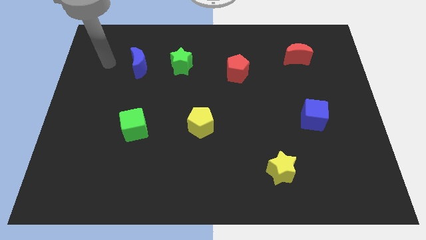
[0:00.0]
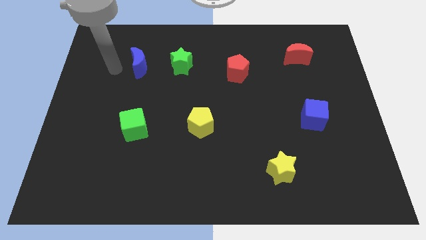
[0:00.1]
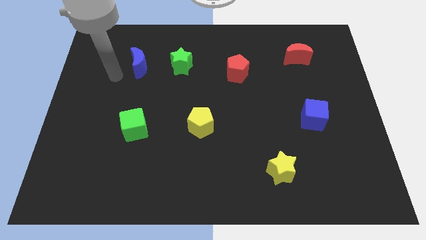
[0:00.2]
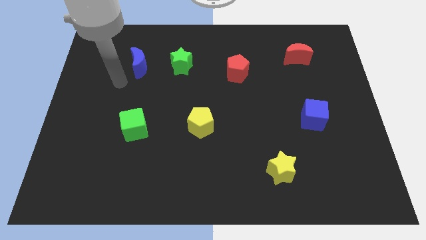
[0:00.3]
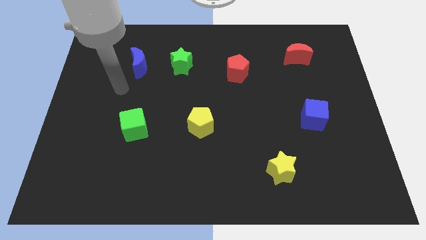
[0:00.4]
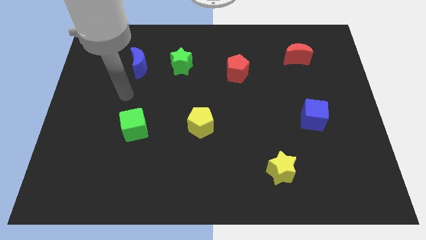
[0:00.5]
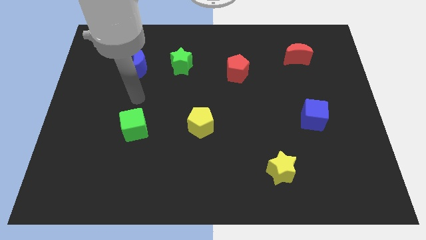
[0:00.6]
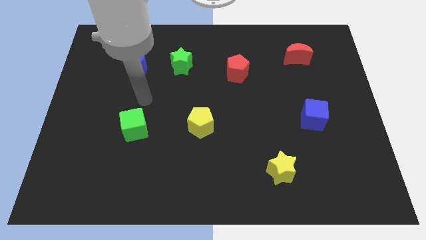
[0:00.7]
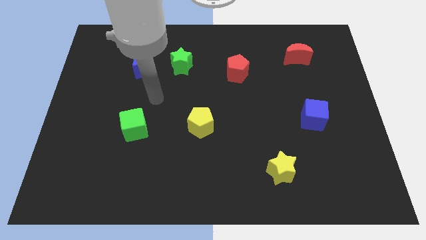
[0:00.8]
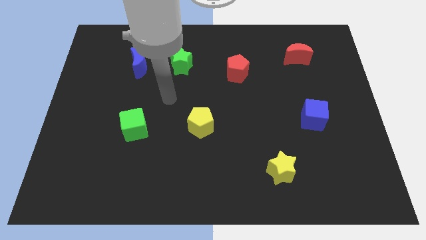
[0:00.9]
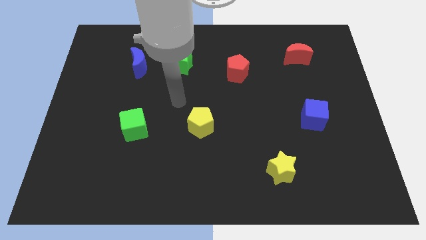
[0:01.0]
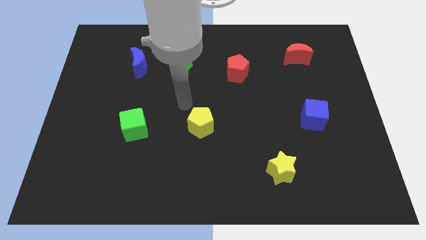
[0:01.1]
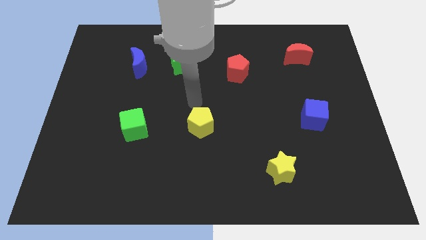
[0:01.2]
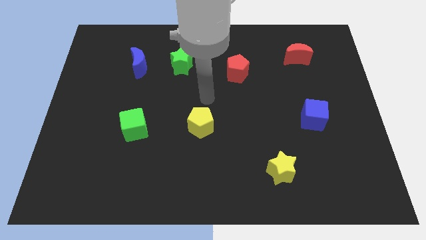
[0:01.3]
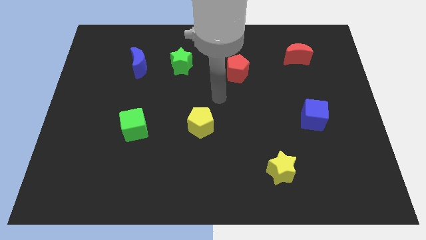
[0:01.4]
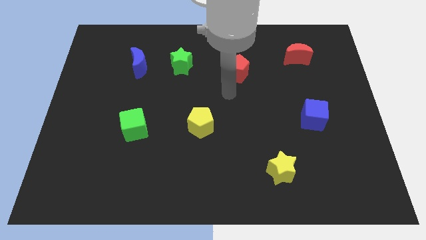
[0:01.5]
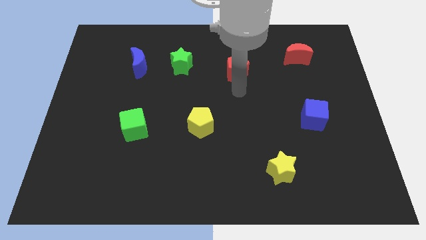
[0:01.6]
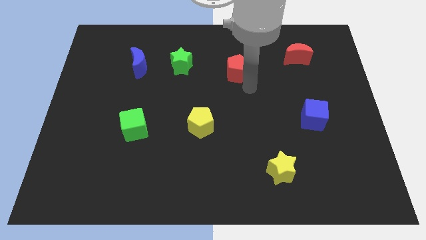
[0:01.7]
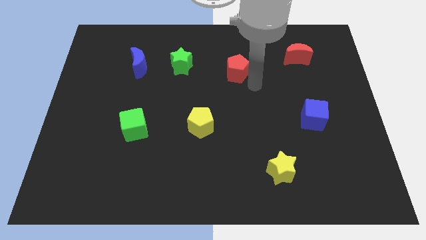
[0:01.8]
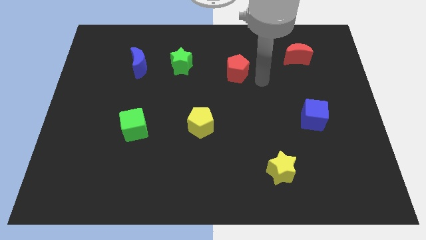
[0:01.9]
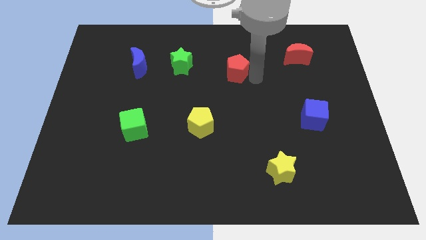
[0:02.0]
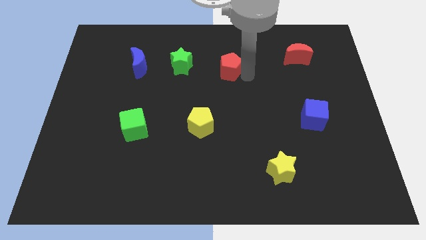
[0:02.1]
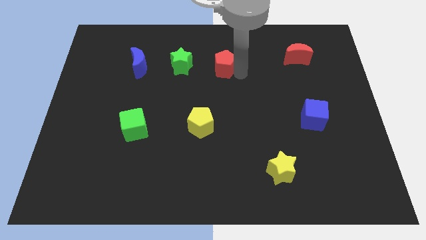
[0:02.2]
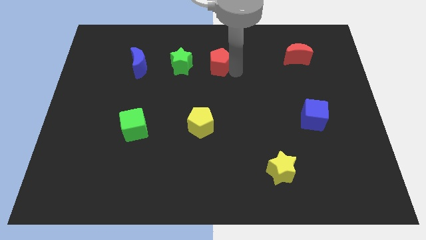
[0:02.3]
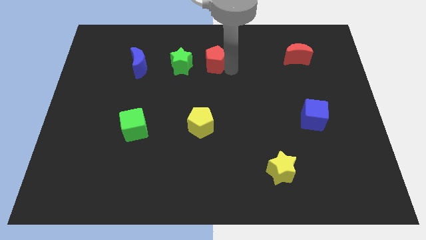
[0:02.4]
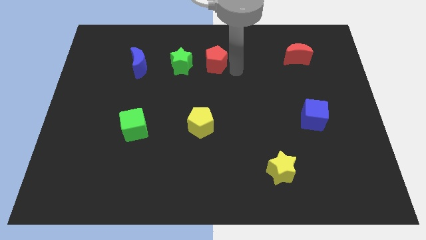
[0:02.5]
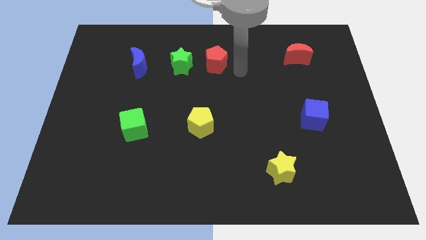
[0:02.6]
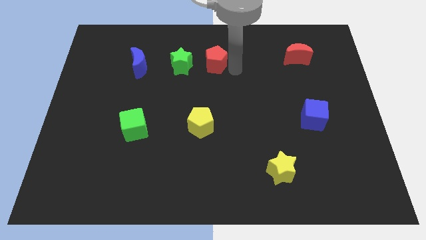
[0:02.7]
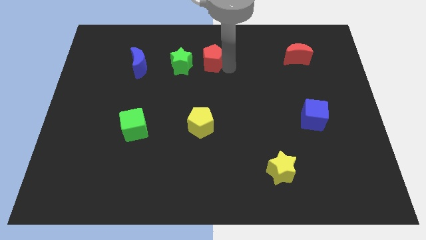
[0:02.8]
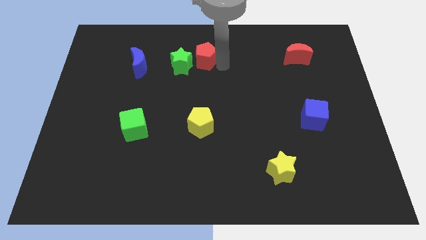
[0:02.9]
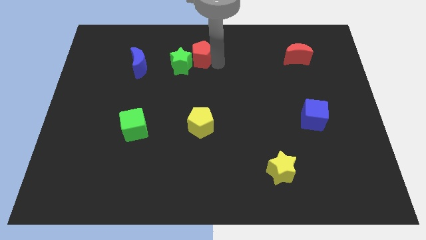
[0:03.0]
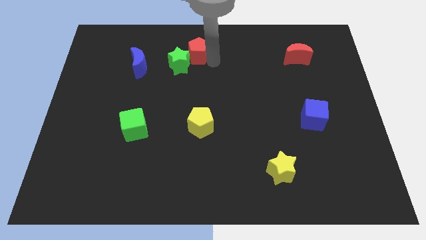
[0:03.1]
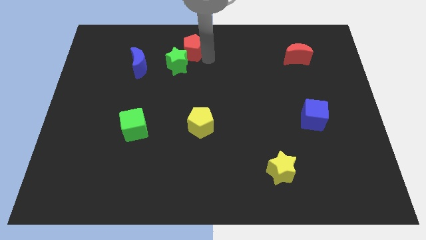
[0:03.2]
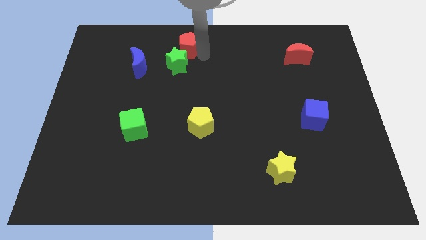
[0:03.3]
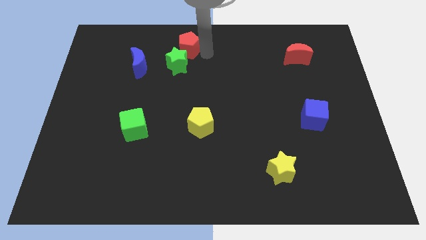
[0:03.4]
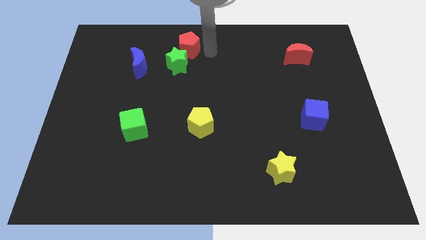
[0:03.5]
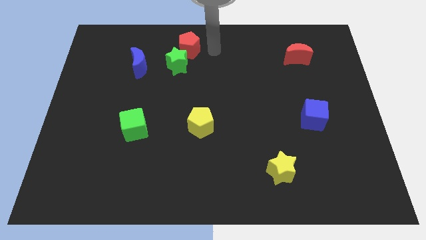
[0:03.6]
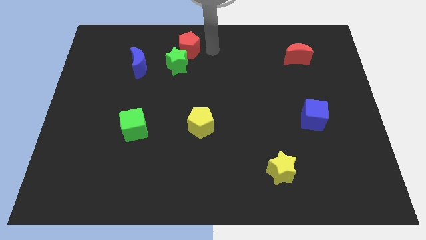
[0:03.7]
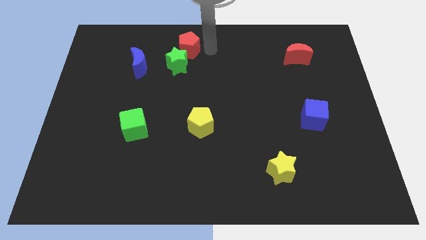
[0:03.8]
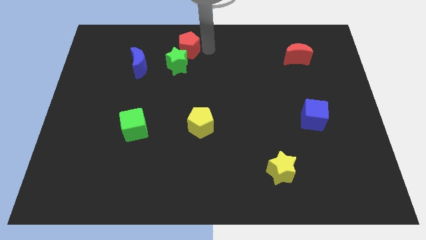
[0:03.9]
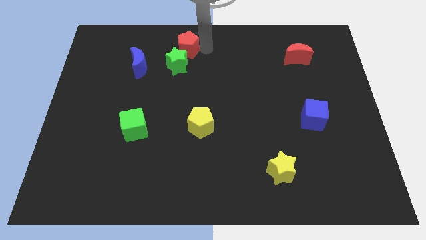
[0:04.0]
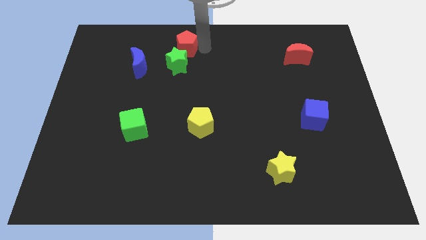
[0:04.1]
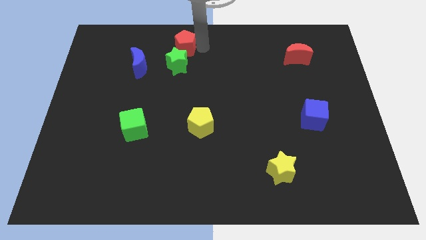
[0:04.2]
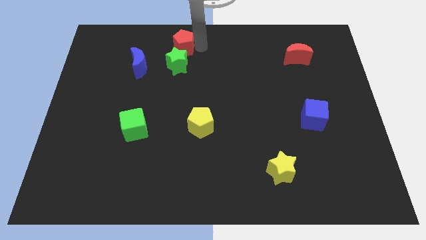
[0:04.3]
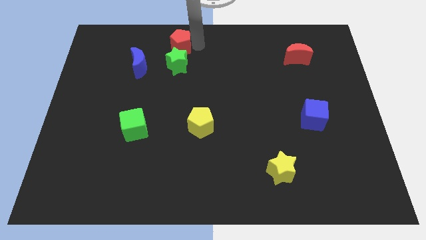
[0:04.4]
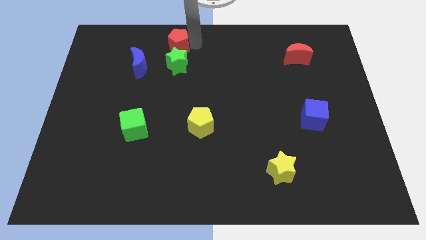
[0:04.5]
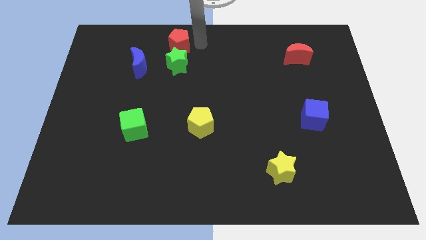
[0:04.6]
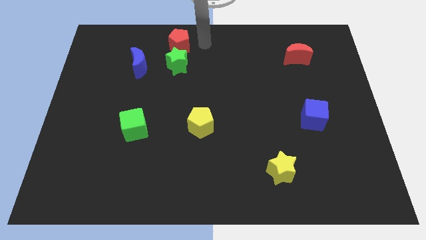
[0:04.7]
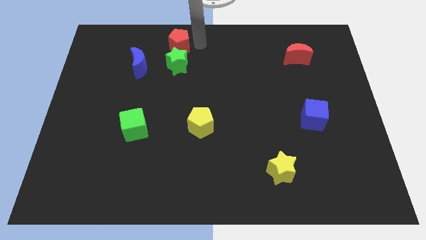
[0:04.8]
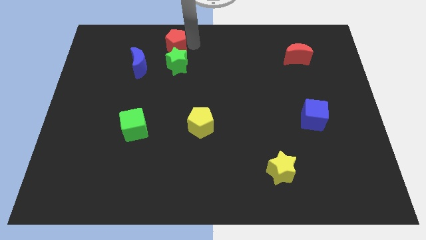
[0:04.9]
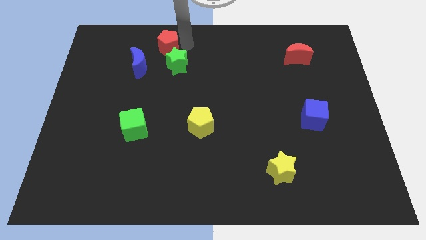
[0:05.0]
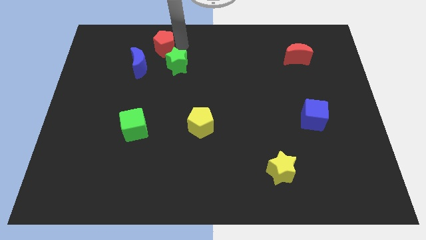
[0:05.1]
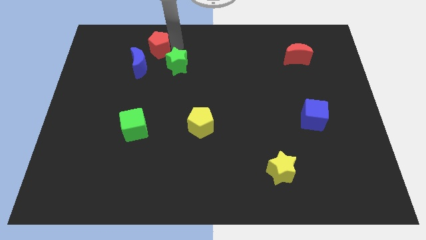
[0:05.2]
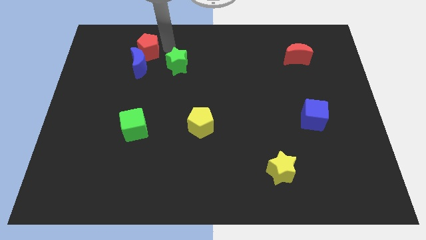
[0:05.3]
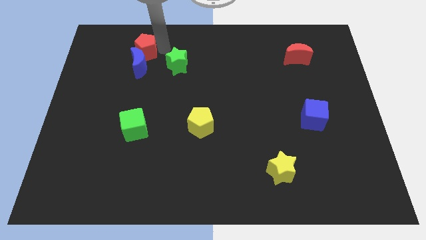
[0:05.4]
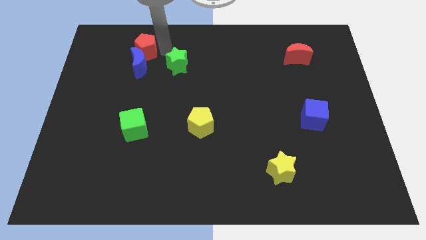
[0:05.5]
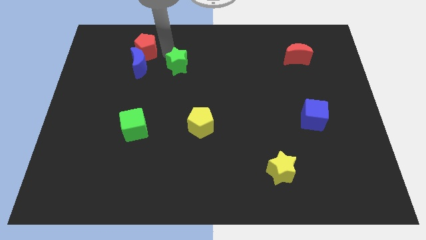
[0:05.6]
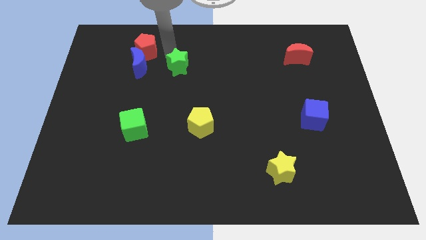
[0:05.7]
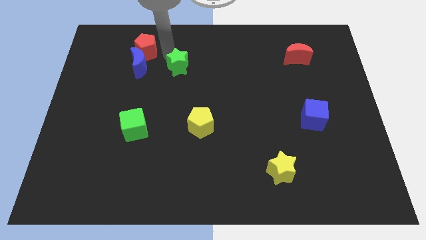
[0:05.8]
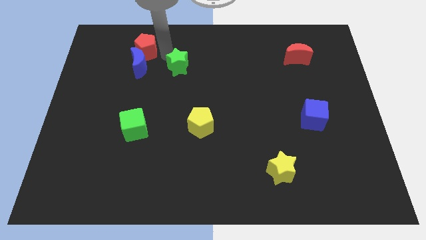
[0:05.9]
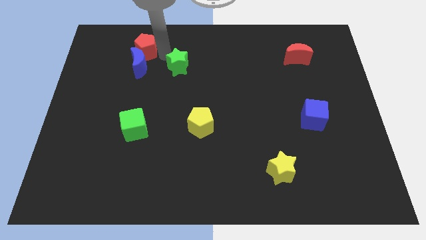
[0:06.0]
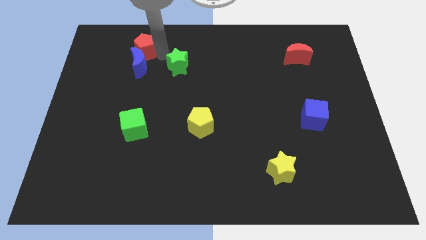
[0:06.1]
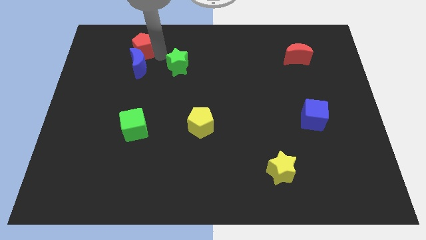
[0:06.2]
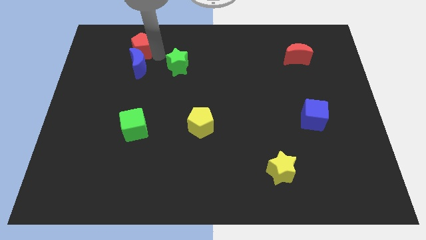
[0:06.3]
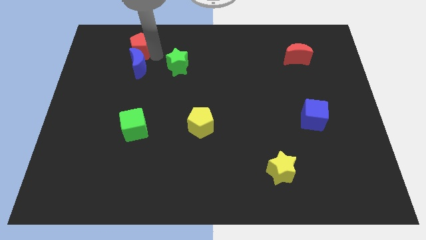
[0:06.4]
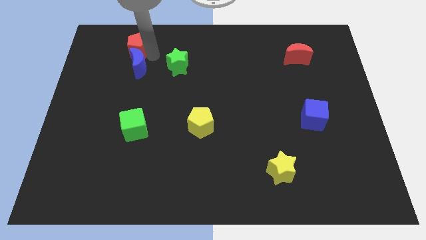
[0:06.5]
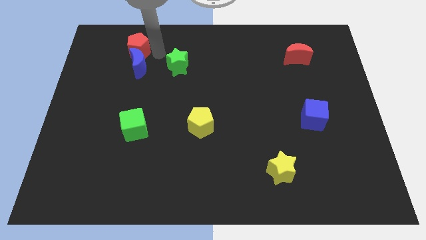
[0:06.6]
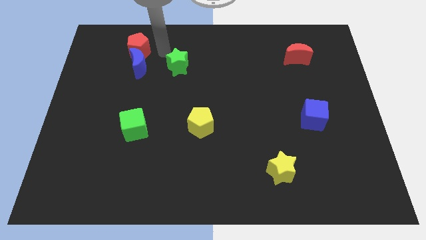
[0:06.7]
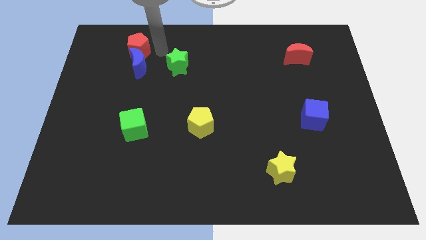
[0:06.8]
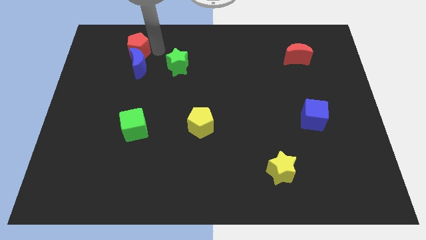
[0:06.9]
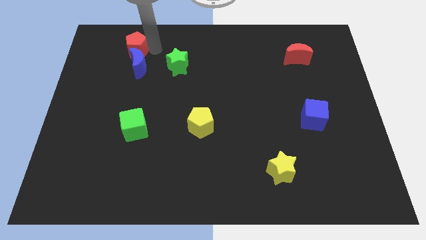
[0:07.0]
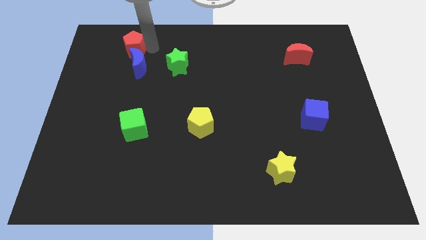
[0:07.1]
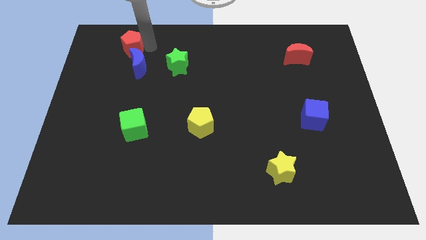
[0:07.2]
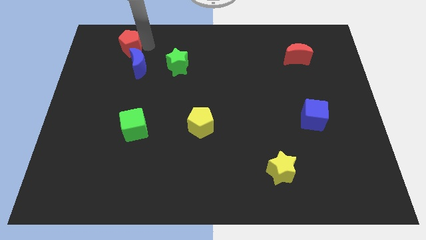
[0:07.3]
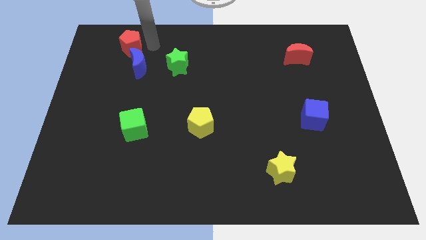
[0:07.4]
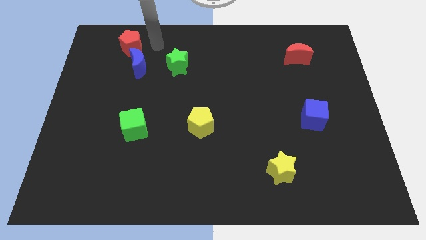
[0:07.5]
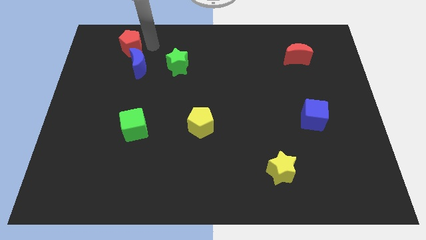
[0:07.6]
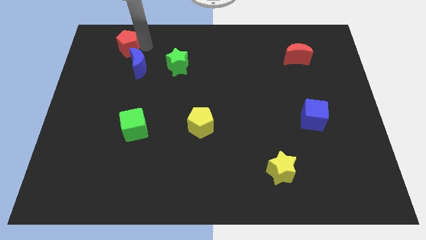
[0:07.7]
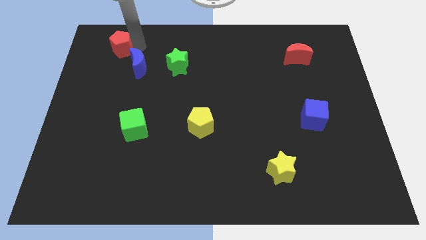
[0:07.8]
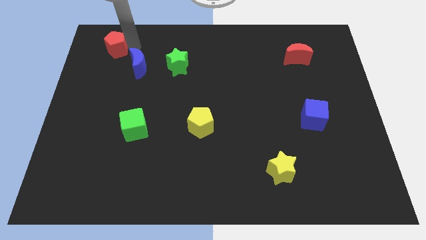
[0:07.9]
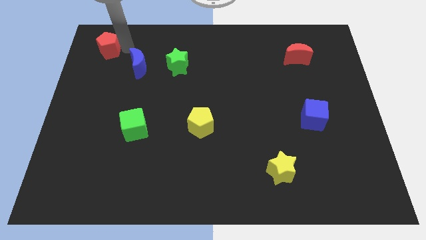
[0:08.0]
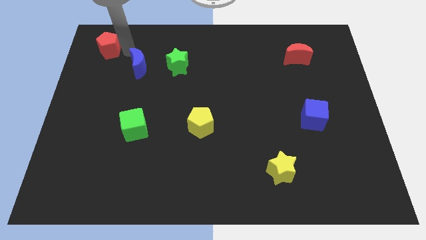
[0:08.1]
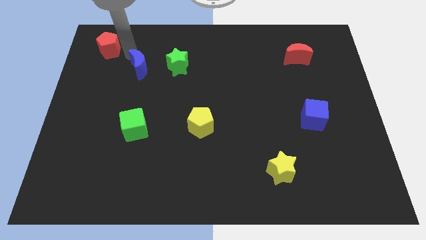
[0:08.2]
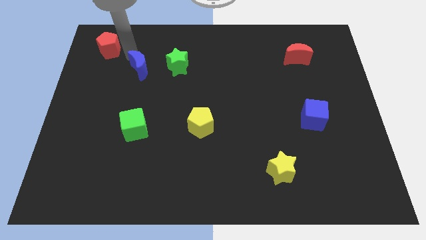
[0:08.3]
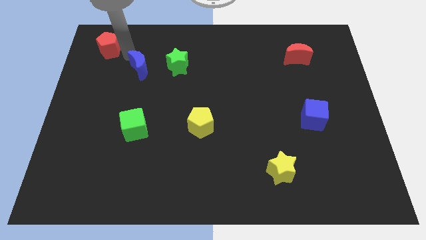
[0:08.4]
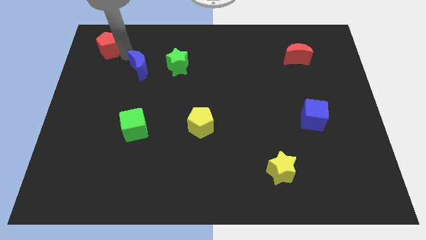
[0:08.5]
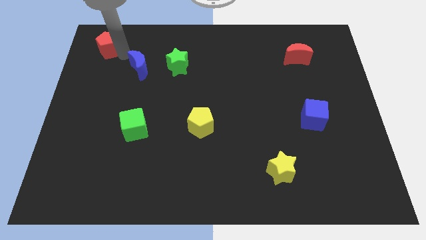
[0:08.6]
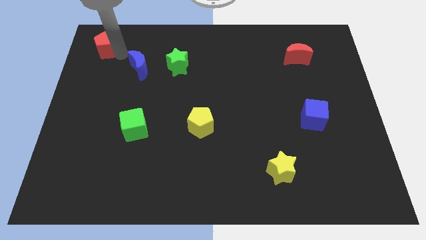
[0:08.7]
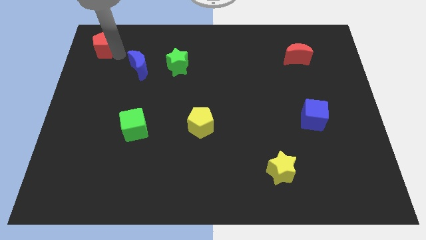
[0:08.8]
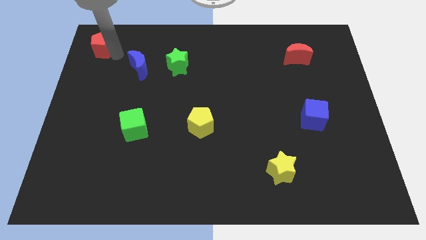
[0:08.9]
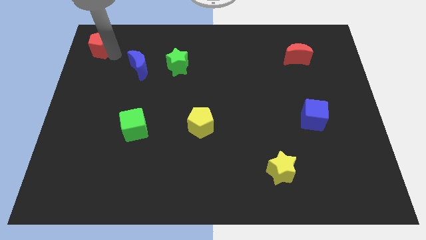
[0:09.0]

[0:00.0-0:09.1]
put the red pentagon to the top left
